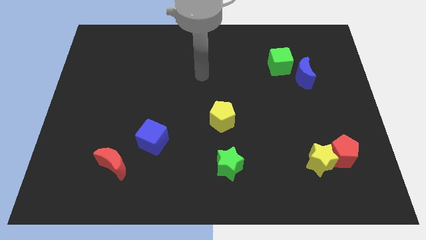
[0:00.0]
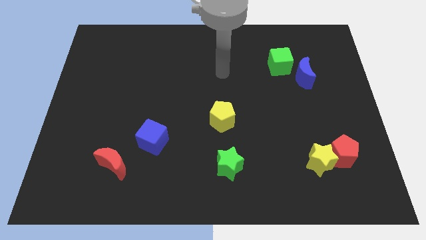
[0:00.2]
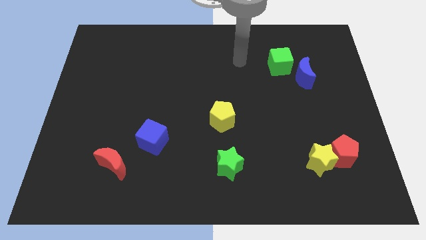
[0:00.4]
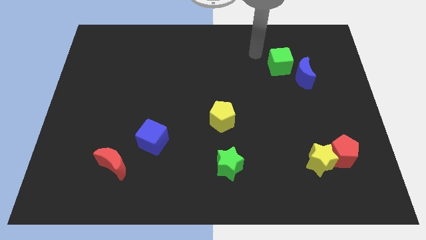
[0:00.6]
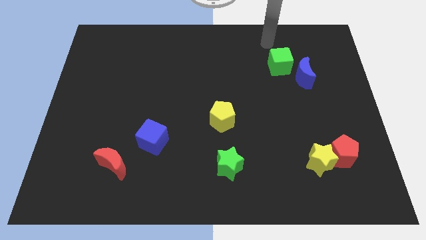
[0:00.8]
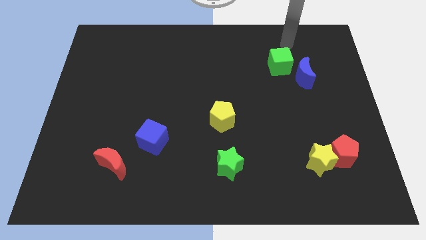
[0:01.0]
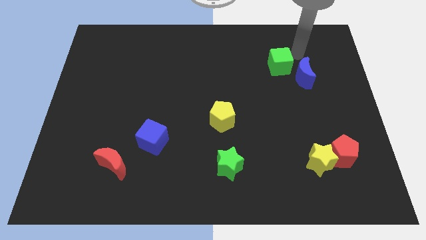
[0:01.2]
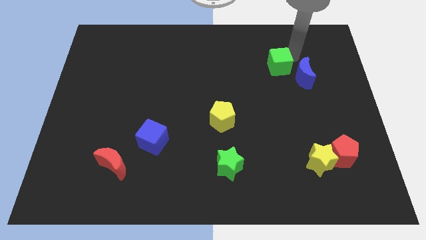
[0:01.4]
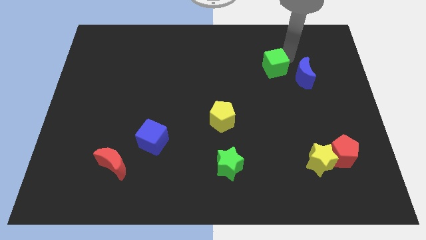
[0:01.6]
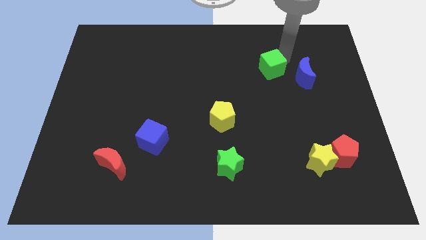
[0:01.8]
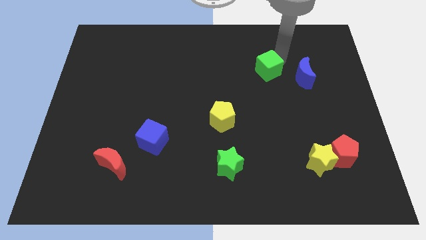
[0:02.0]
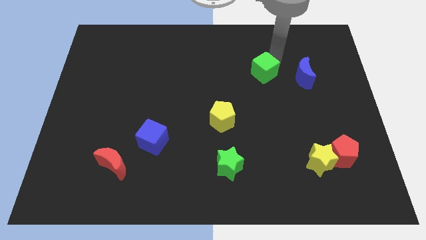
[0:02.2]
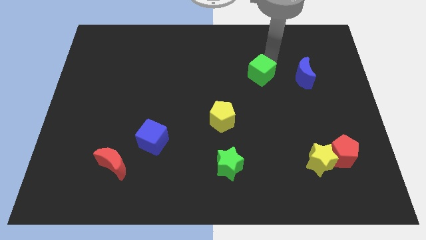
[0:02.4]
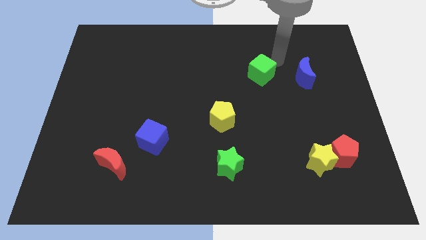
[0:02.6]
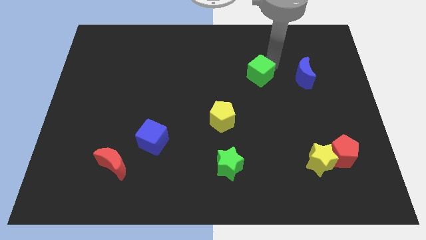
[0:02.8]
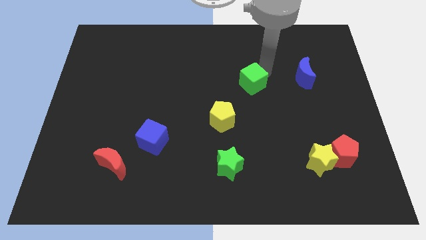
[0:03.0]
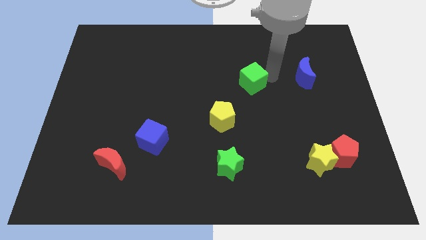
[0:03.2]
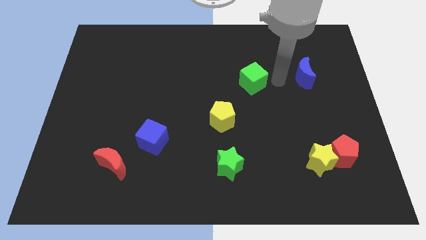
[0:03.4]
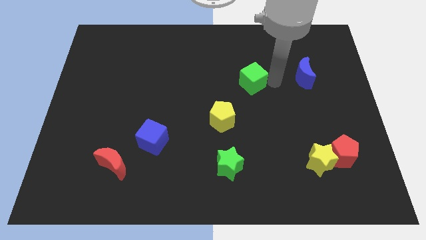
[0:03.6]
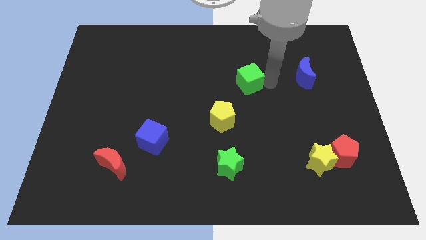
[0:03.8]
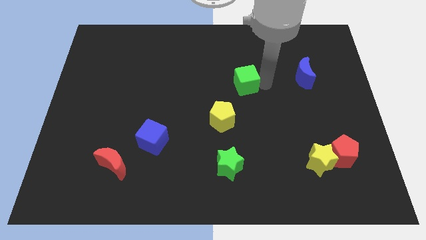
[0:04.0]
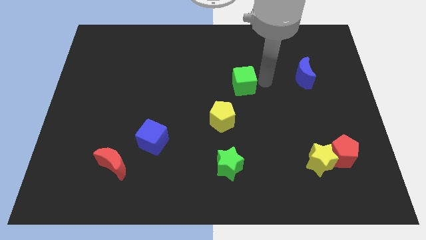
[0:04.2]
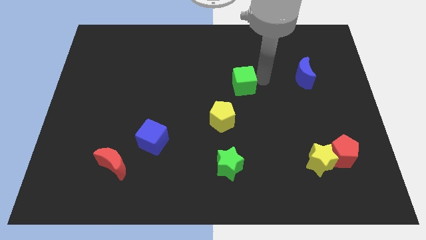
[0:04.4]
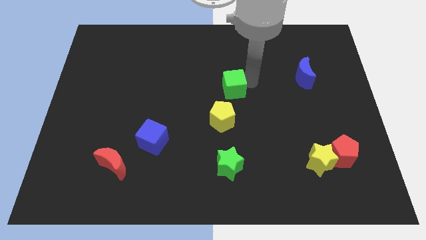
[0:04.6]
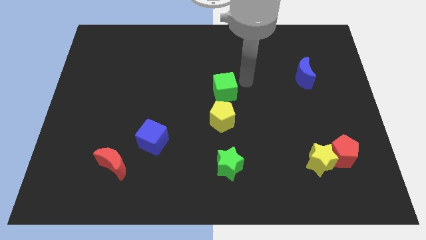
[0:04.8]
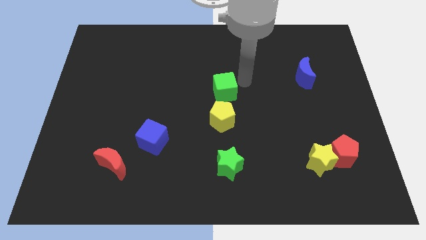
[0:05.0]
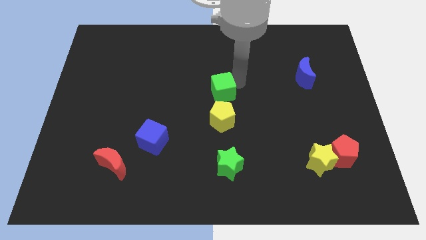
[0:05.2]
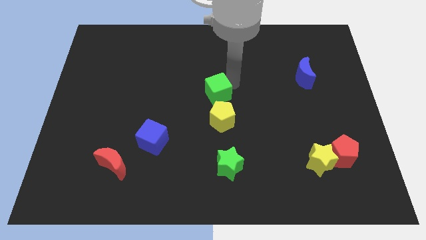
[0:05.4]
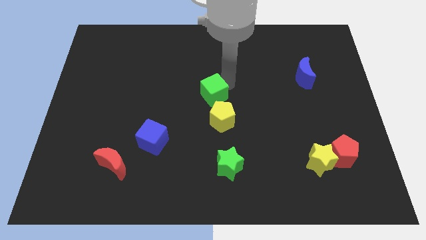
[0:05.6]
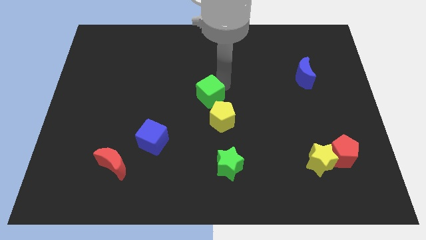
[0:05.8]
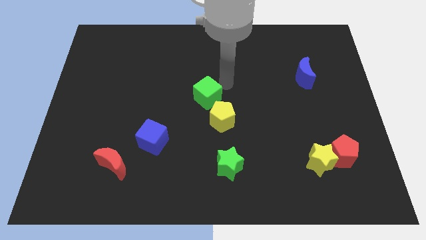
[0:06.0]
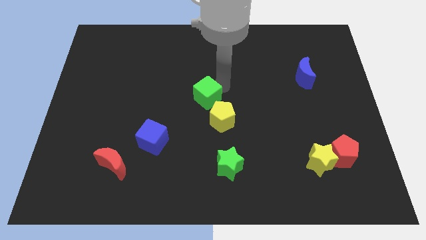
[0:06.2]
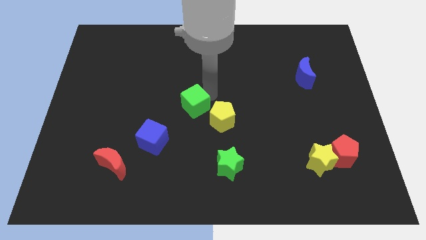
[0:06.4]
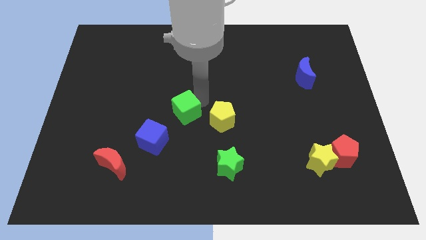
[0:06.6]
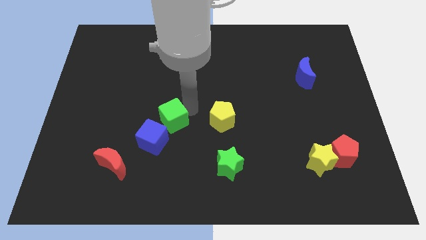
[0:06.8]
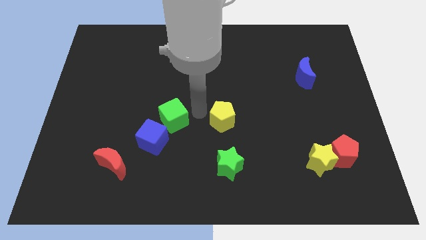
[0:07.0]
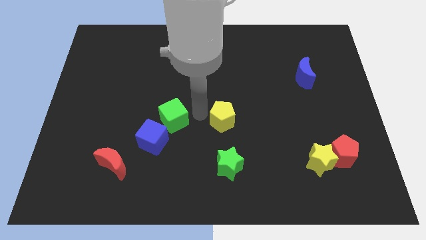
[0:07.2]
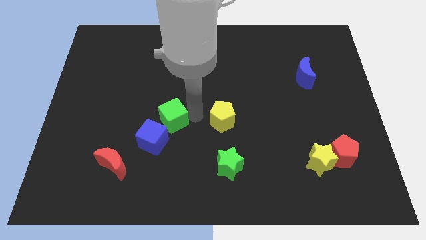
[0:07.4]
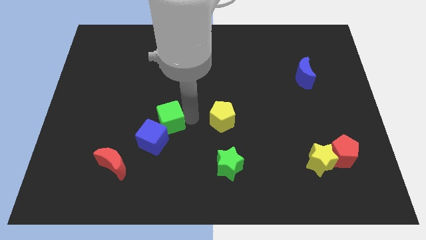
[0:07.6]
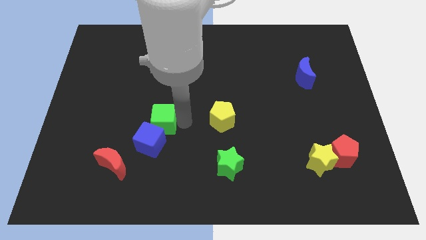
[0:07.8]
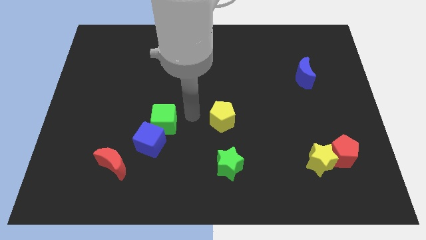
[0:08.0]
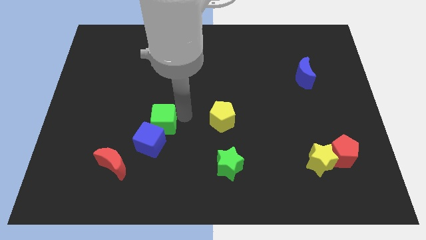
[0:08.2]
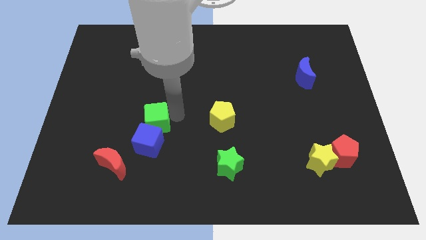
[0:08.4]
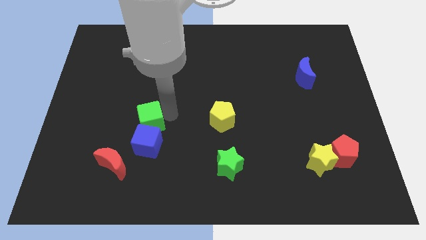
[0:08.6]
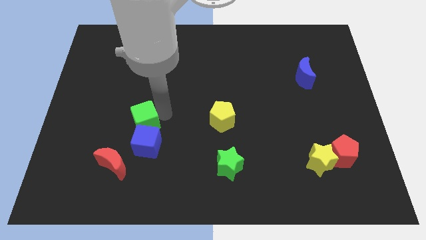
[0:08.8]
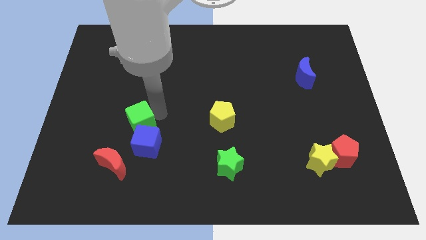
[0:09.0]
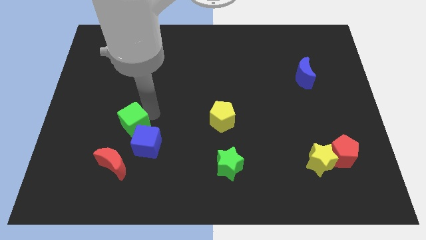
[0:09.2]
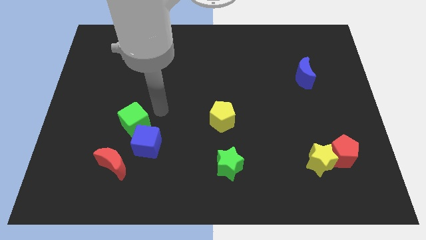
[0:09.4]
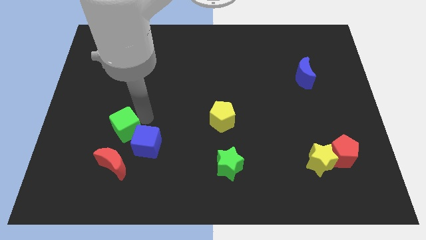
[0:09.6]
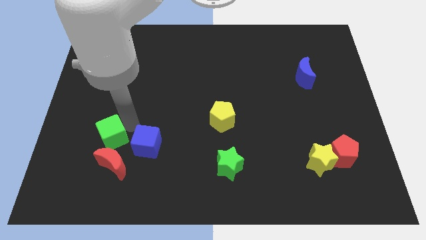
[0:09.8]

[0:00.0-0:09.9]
push the green cube to the top left side of the red moon

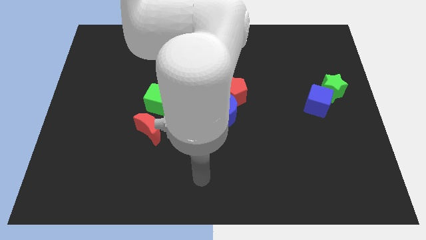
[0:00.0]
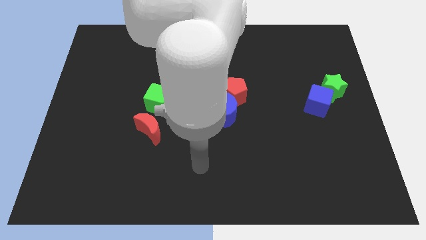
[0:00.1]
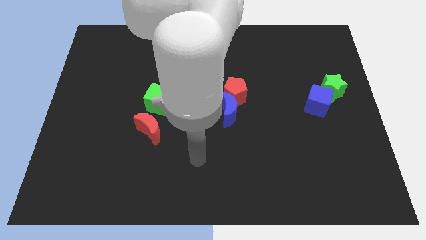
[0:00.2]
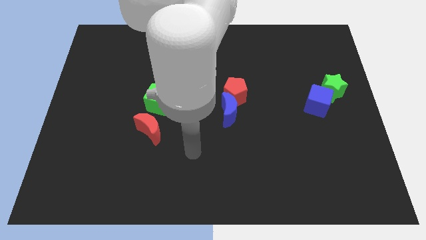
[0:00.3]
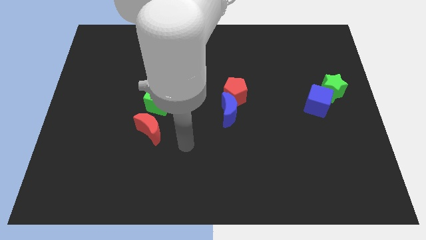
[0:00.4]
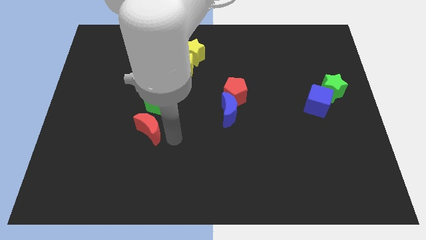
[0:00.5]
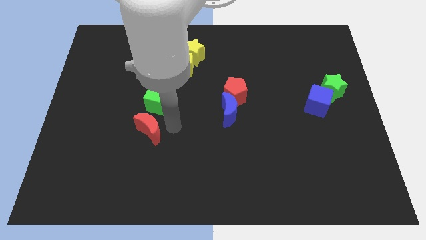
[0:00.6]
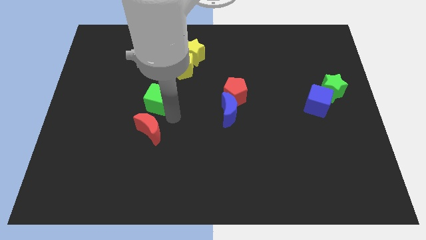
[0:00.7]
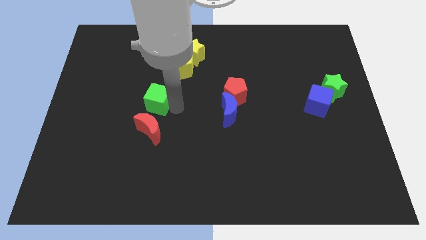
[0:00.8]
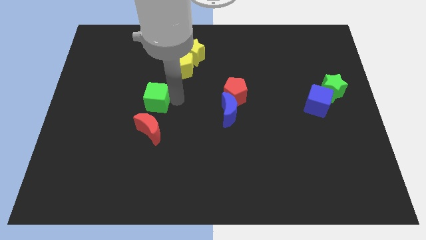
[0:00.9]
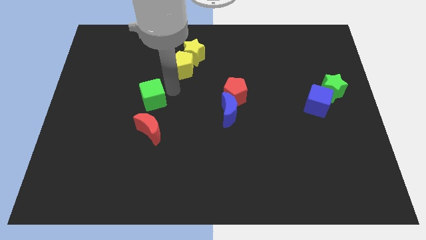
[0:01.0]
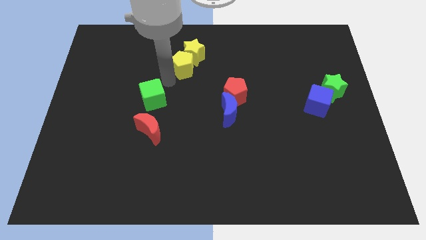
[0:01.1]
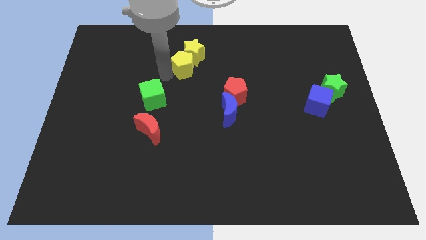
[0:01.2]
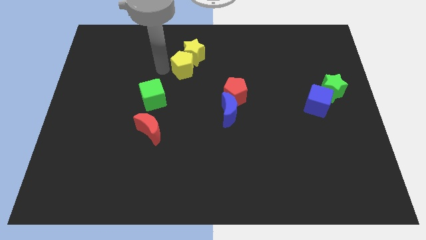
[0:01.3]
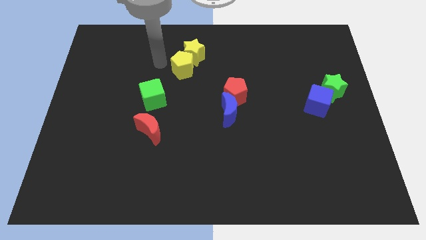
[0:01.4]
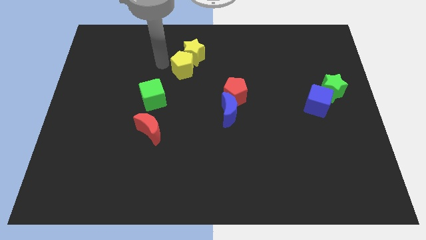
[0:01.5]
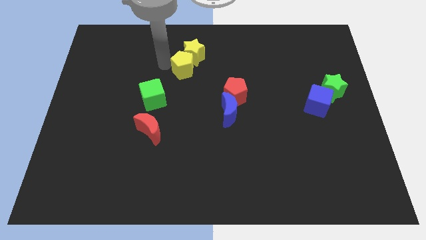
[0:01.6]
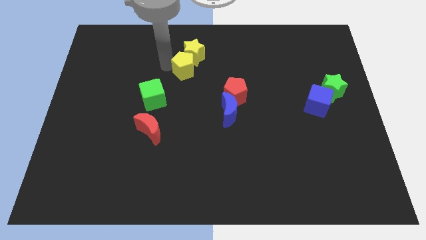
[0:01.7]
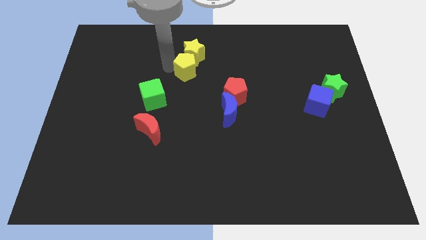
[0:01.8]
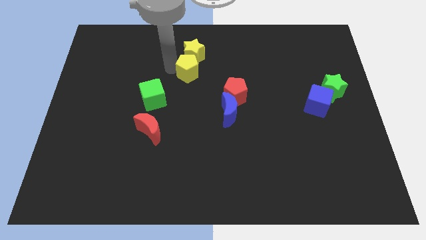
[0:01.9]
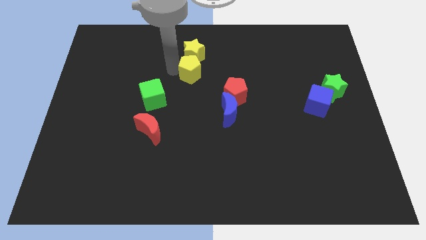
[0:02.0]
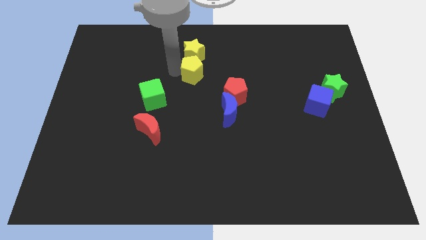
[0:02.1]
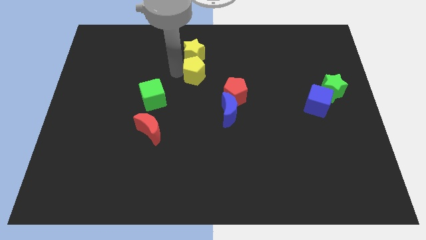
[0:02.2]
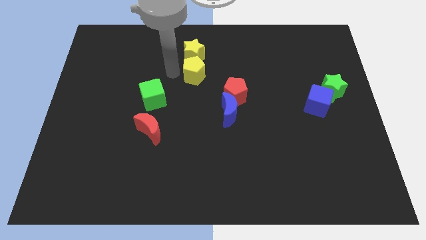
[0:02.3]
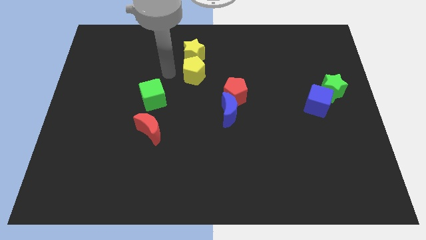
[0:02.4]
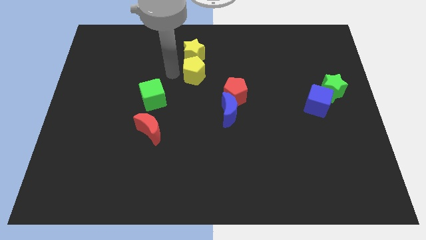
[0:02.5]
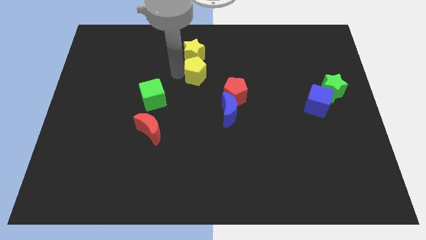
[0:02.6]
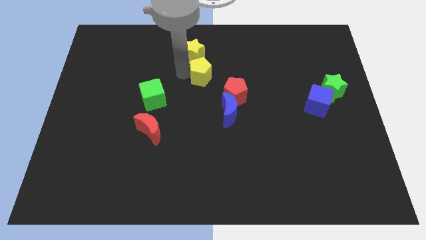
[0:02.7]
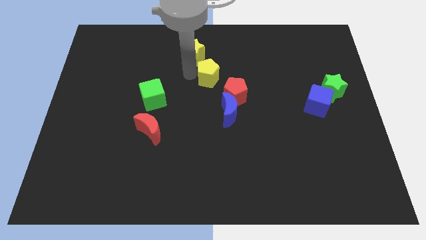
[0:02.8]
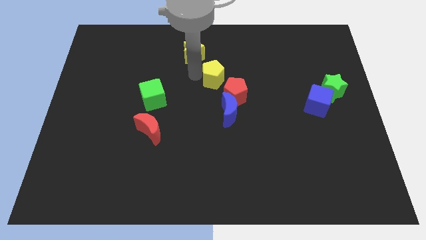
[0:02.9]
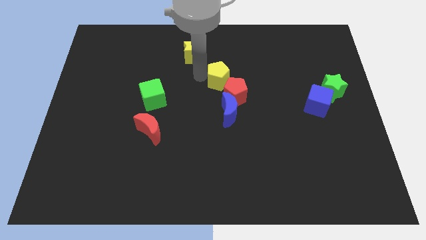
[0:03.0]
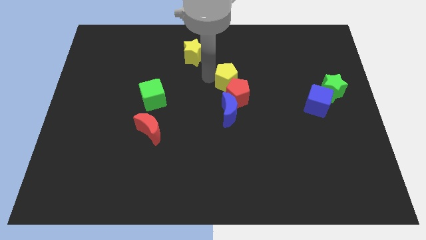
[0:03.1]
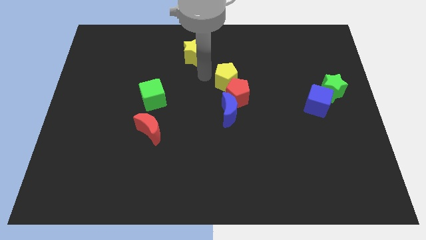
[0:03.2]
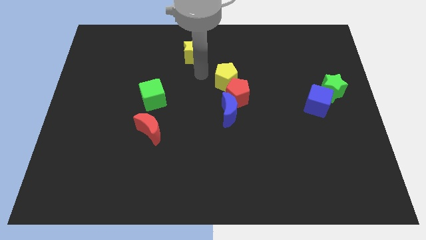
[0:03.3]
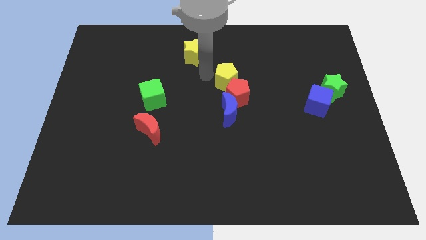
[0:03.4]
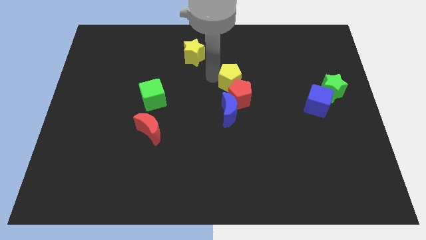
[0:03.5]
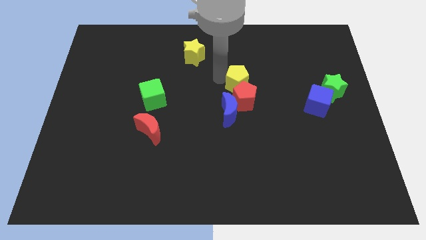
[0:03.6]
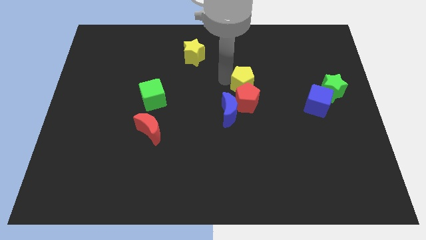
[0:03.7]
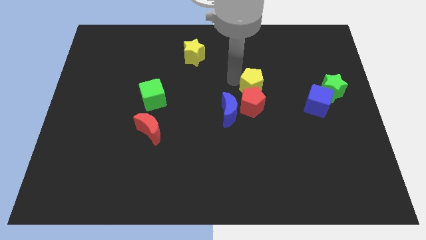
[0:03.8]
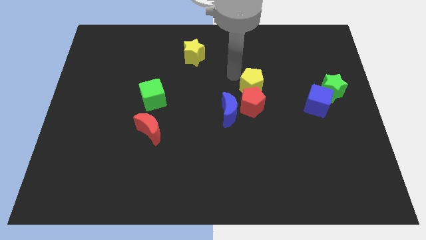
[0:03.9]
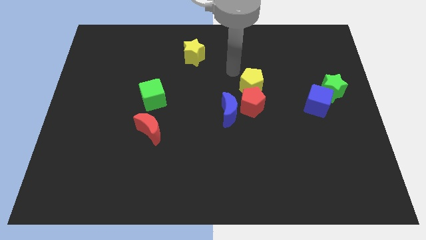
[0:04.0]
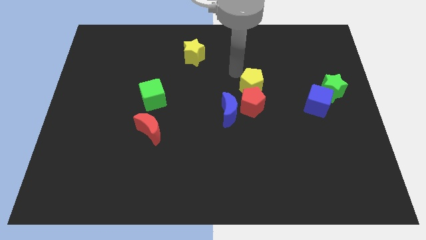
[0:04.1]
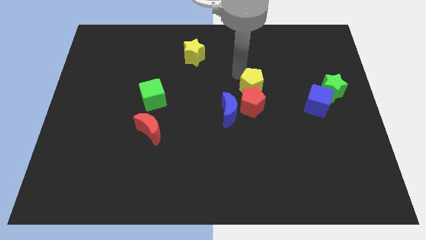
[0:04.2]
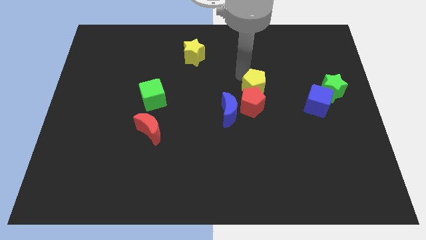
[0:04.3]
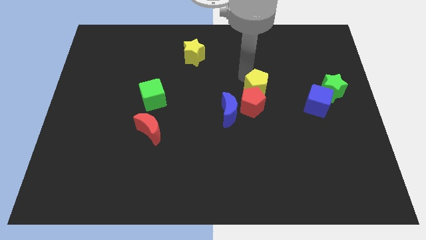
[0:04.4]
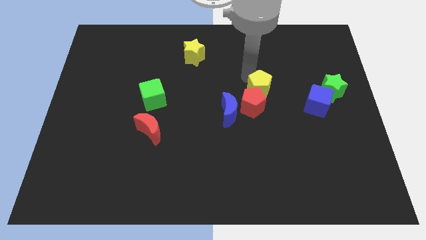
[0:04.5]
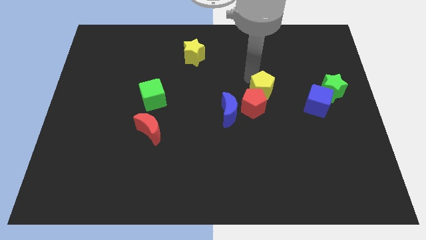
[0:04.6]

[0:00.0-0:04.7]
put the yellow pentagon to the left side of the blue cube
